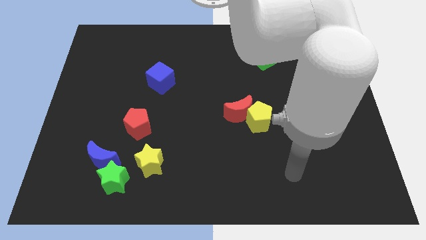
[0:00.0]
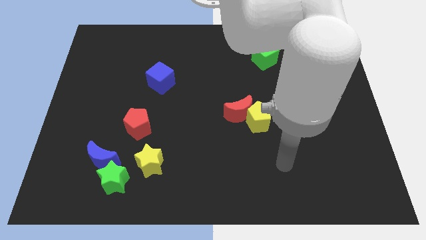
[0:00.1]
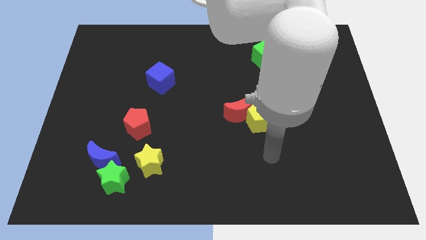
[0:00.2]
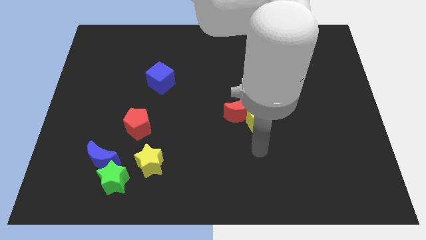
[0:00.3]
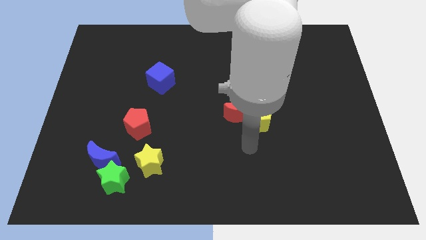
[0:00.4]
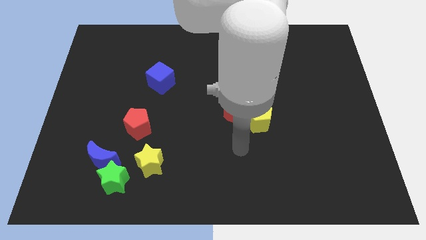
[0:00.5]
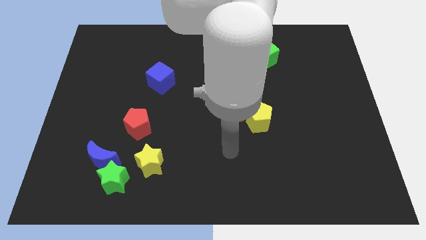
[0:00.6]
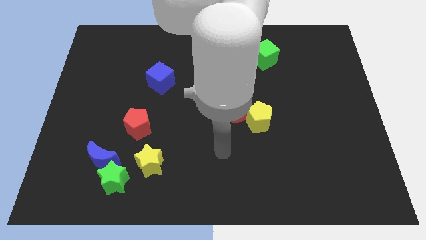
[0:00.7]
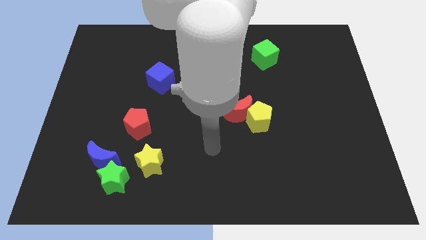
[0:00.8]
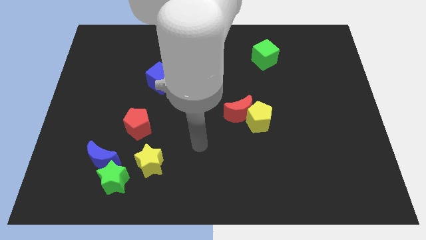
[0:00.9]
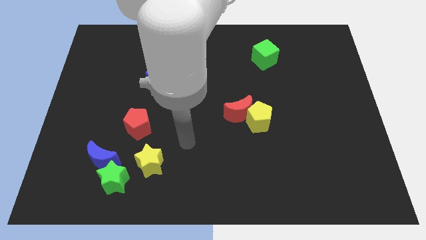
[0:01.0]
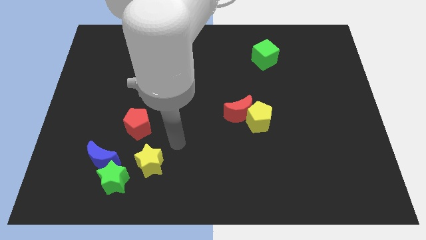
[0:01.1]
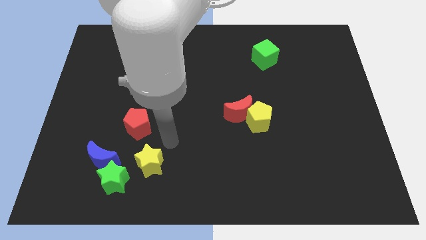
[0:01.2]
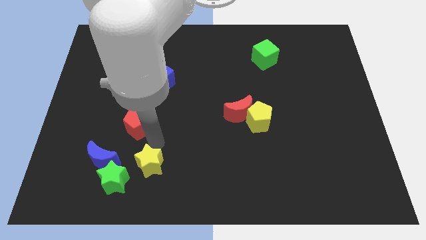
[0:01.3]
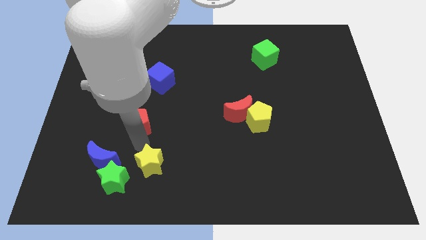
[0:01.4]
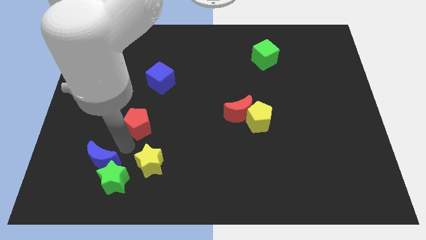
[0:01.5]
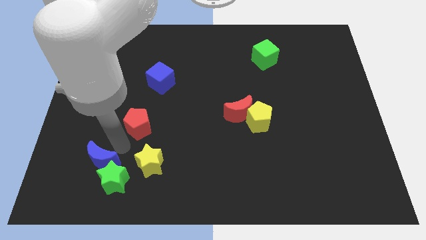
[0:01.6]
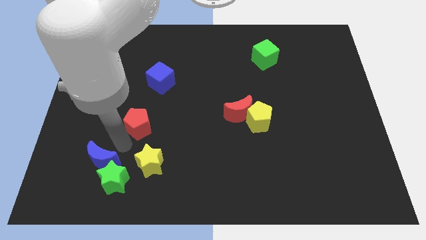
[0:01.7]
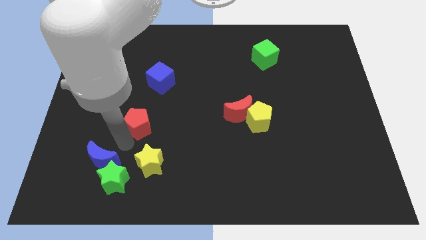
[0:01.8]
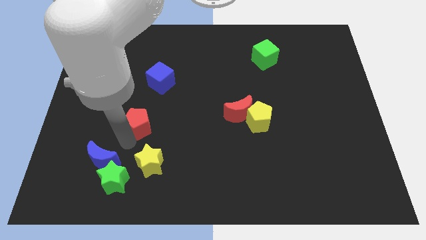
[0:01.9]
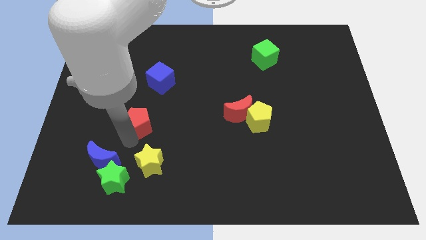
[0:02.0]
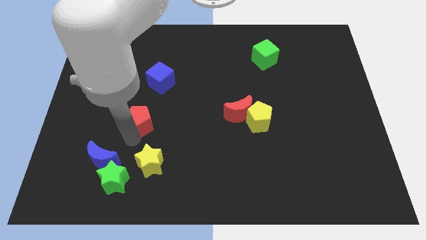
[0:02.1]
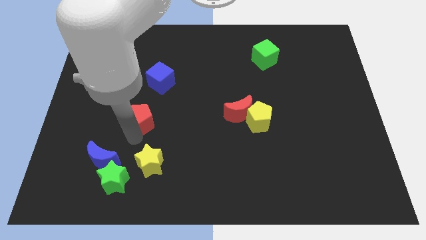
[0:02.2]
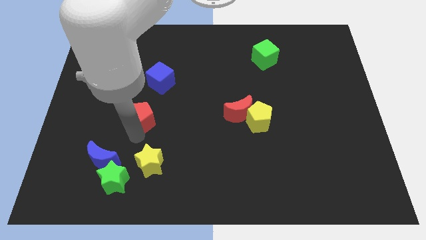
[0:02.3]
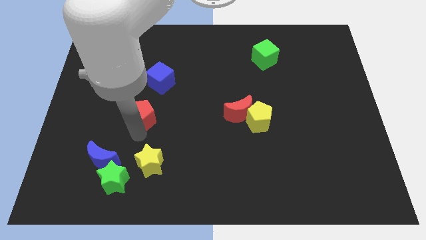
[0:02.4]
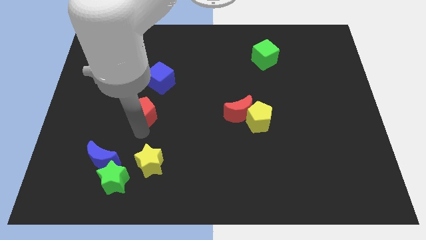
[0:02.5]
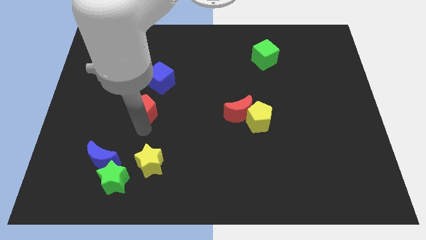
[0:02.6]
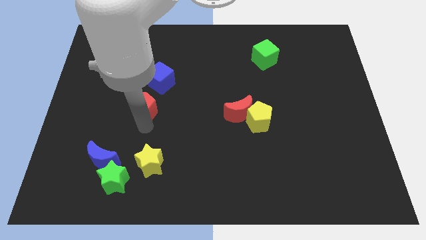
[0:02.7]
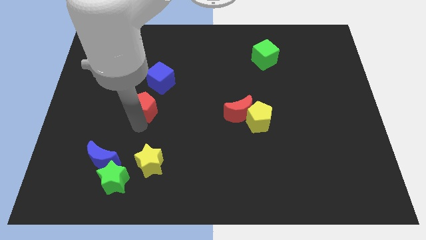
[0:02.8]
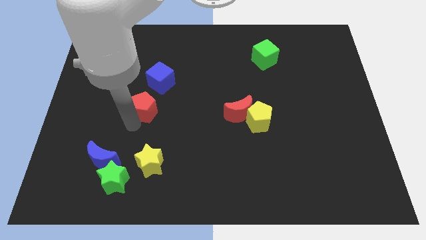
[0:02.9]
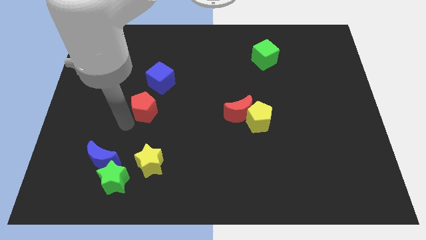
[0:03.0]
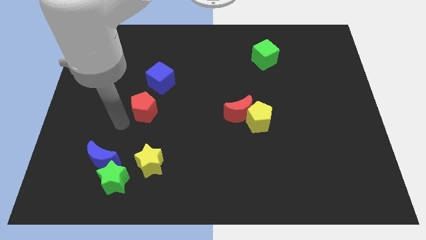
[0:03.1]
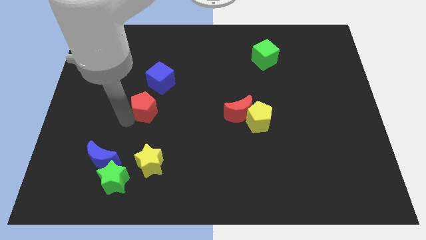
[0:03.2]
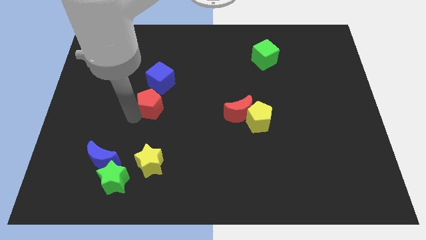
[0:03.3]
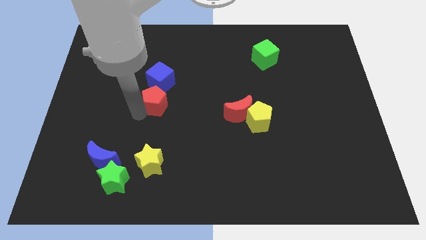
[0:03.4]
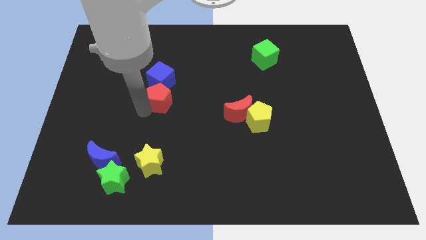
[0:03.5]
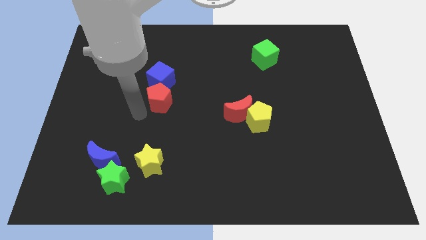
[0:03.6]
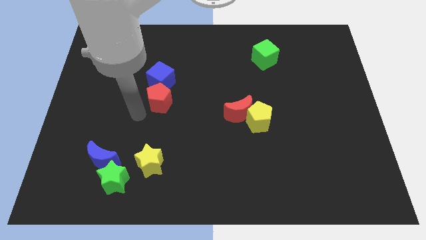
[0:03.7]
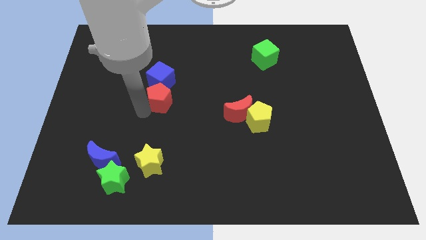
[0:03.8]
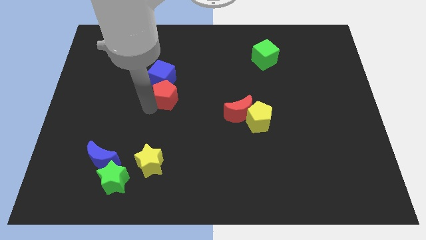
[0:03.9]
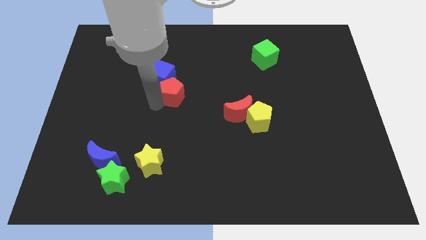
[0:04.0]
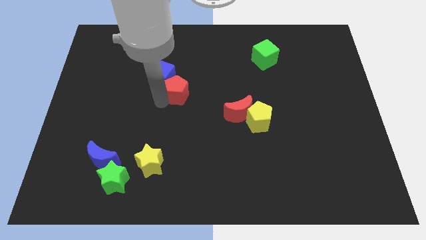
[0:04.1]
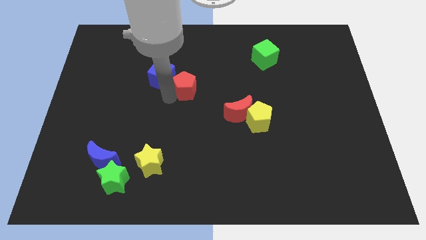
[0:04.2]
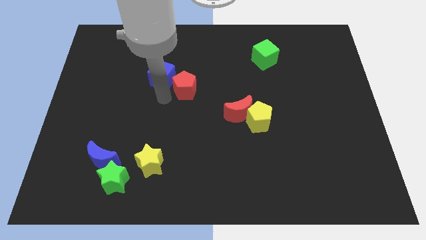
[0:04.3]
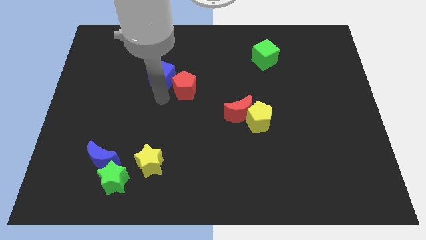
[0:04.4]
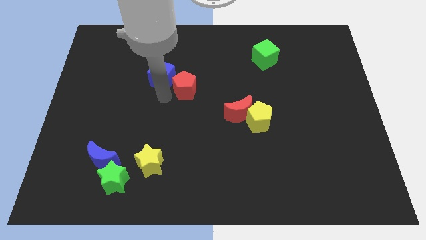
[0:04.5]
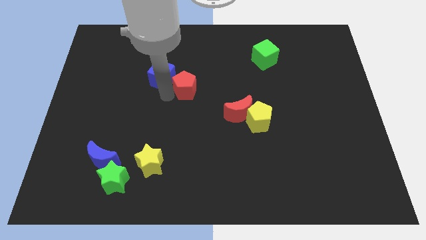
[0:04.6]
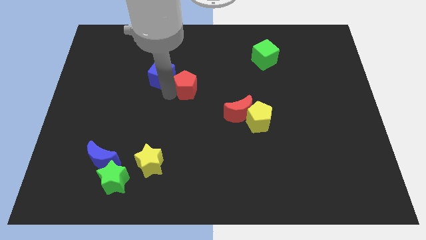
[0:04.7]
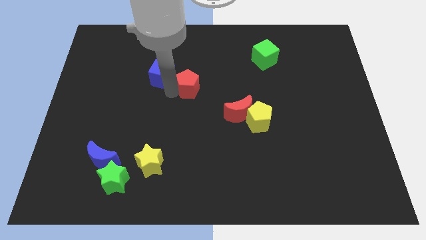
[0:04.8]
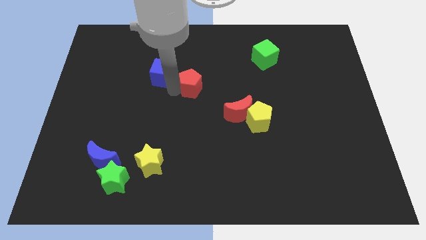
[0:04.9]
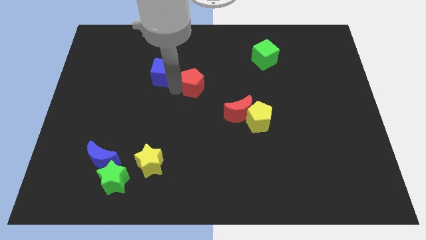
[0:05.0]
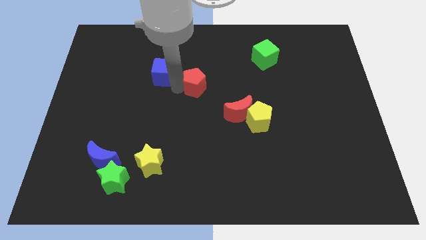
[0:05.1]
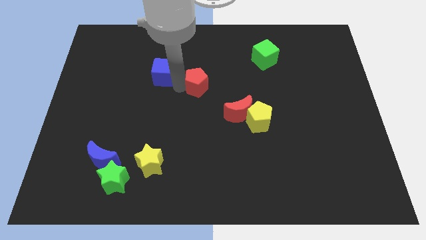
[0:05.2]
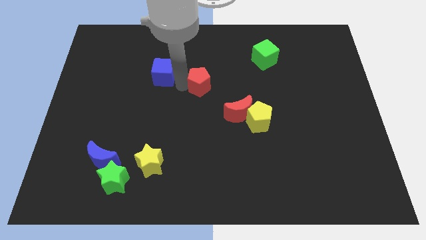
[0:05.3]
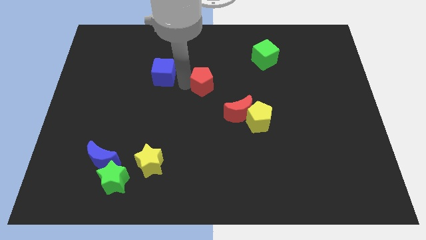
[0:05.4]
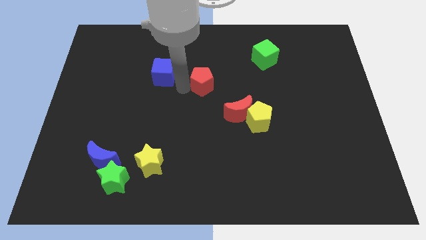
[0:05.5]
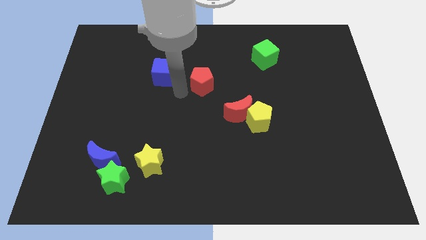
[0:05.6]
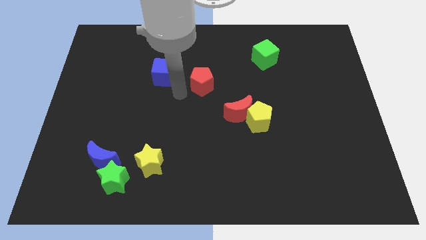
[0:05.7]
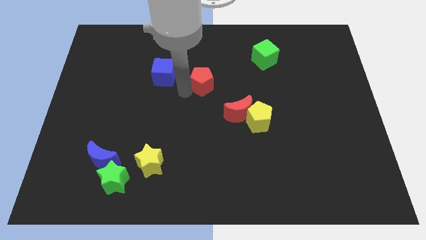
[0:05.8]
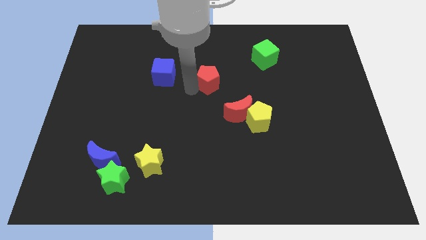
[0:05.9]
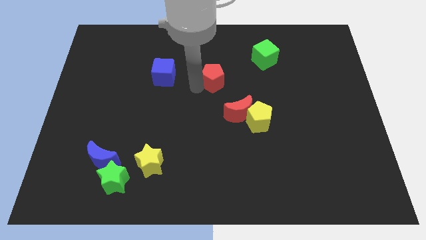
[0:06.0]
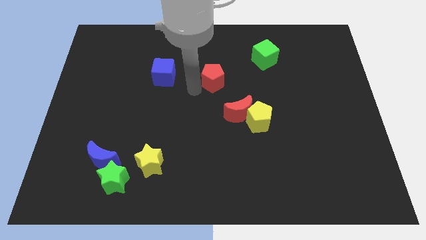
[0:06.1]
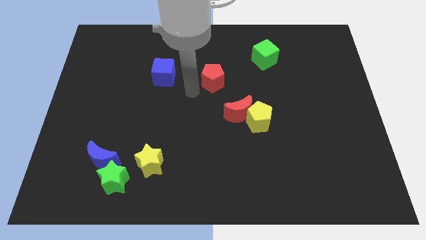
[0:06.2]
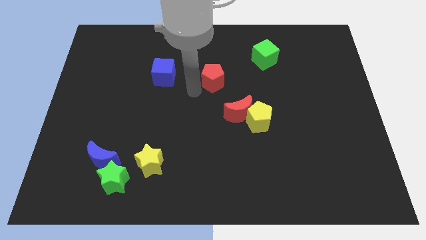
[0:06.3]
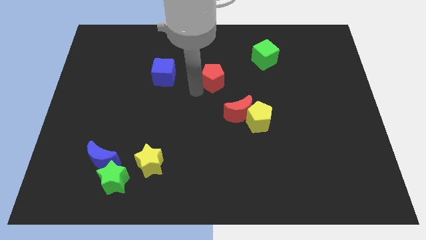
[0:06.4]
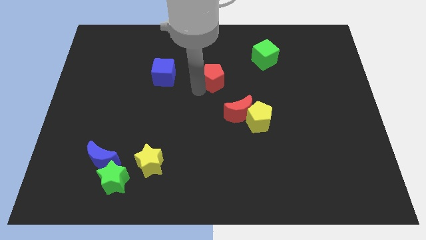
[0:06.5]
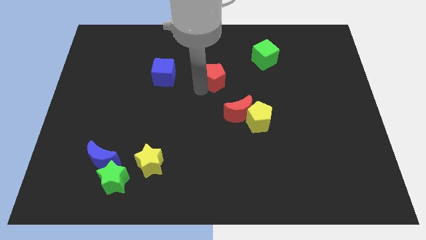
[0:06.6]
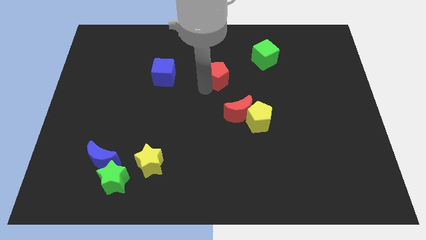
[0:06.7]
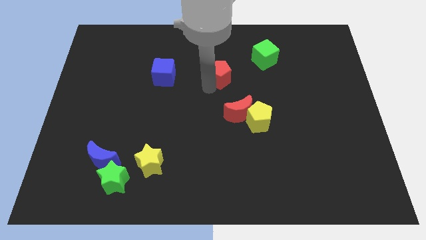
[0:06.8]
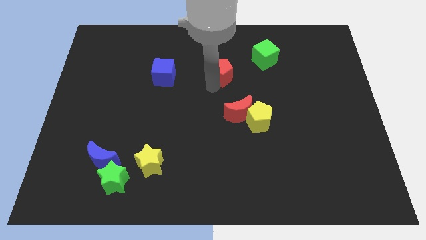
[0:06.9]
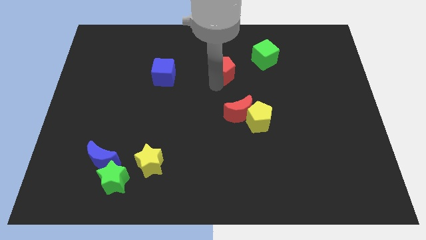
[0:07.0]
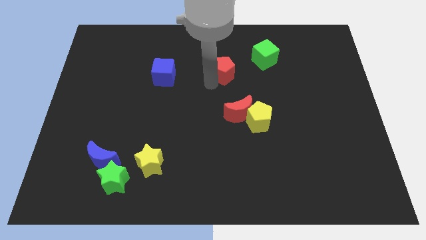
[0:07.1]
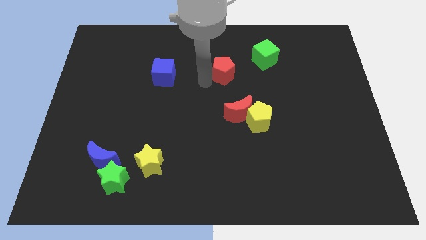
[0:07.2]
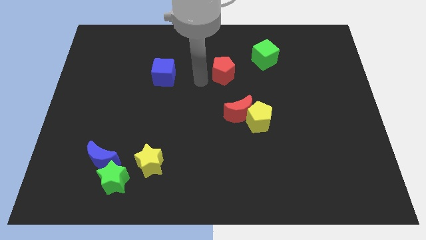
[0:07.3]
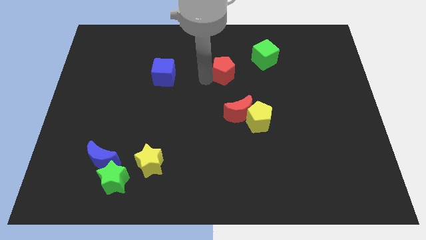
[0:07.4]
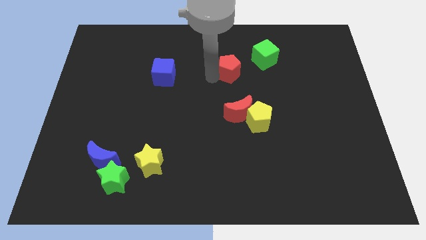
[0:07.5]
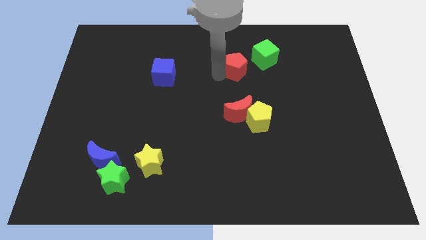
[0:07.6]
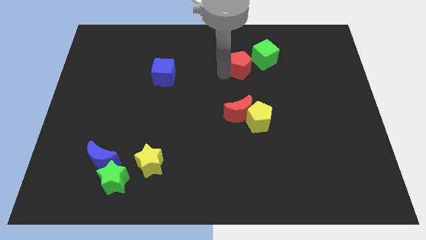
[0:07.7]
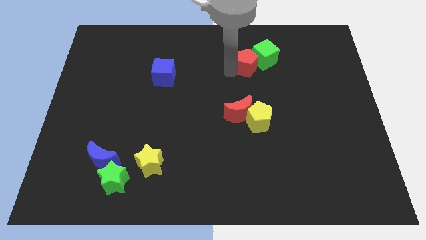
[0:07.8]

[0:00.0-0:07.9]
push the red pentagon to the green cube
